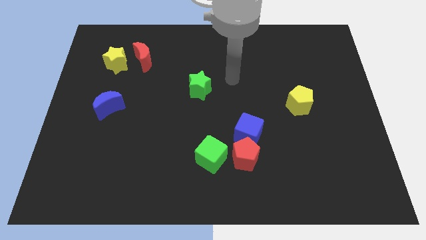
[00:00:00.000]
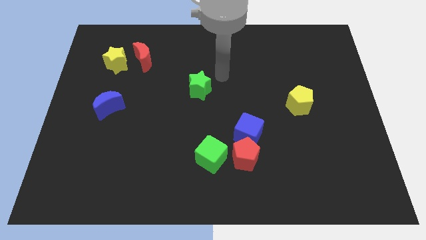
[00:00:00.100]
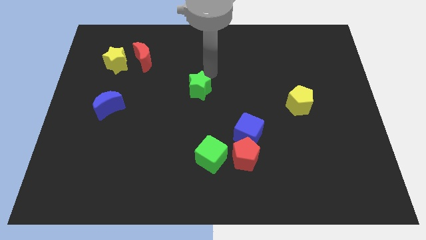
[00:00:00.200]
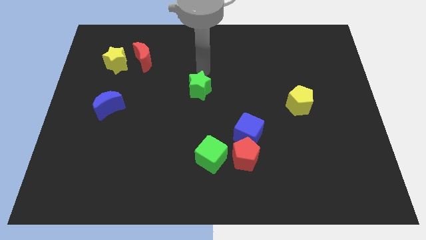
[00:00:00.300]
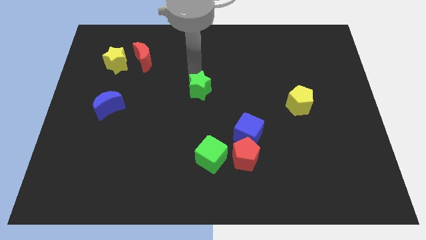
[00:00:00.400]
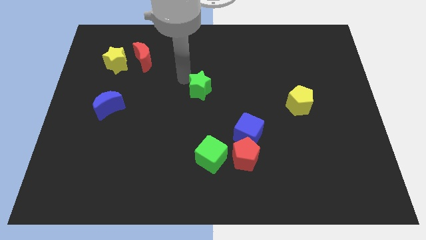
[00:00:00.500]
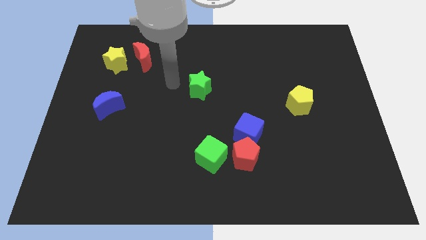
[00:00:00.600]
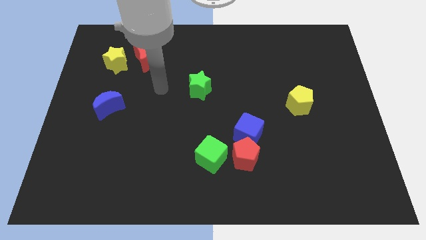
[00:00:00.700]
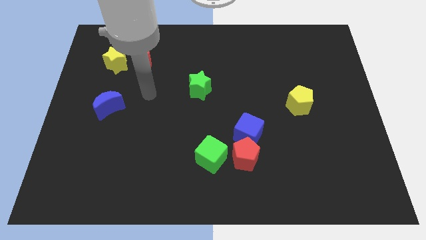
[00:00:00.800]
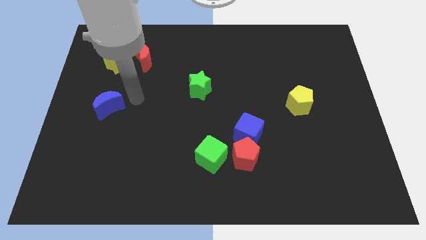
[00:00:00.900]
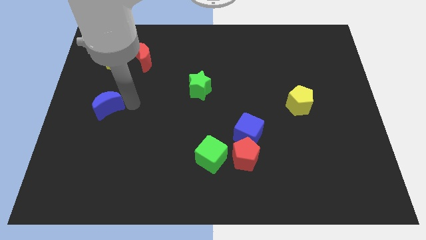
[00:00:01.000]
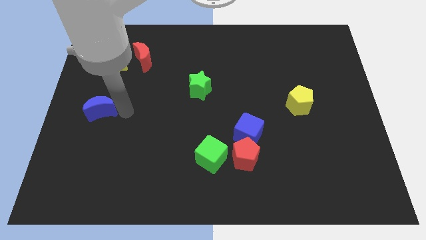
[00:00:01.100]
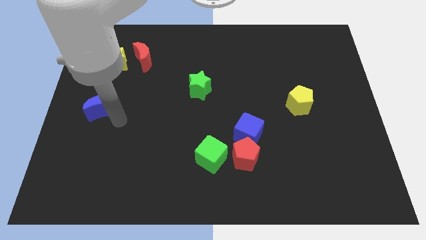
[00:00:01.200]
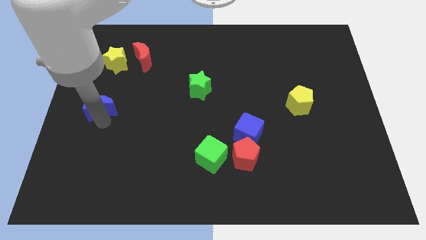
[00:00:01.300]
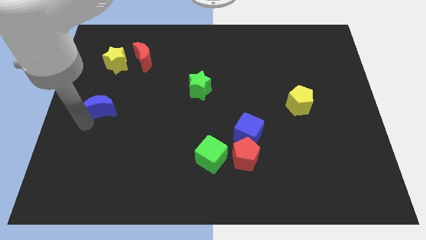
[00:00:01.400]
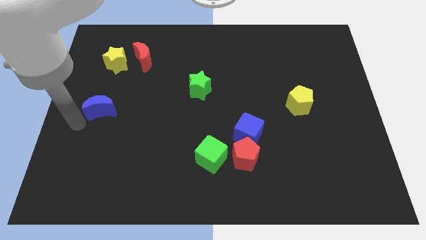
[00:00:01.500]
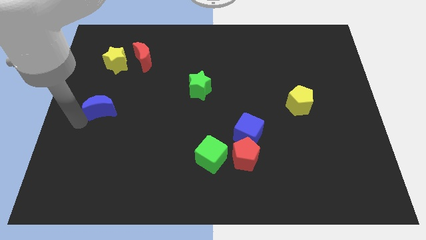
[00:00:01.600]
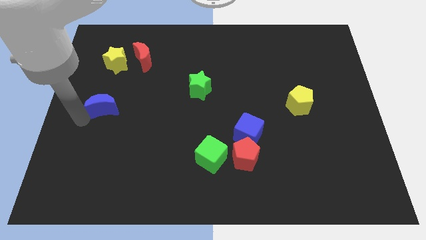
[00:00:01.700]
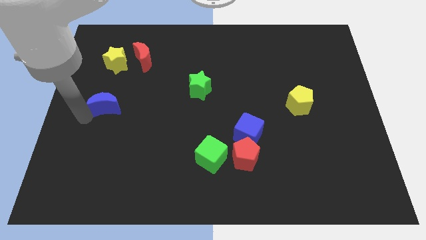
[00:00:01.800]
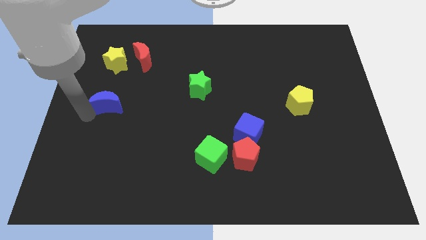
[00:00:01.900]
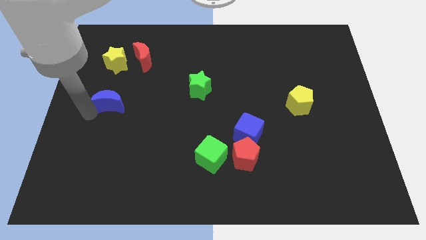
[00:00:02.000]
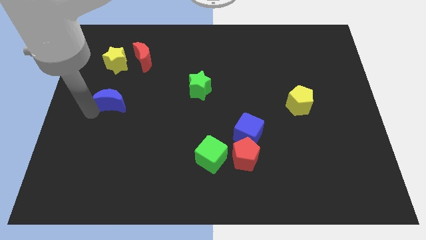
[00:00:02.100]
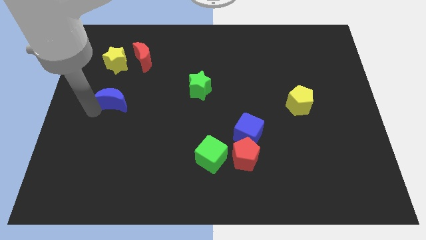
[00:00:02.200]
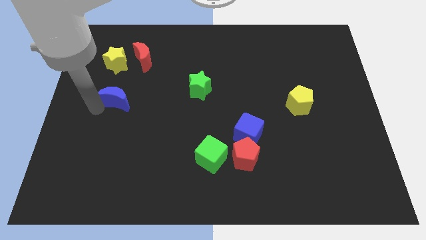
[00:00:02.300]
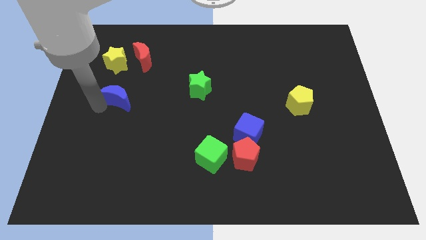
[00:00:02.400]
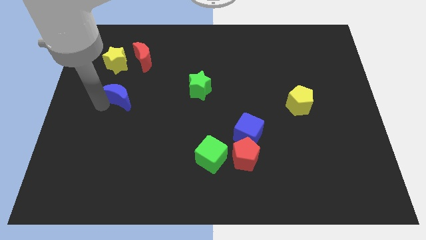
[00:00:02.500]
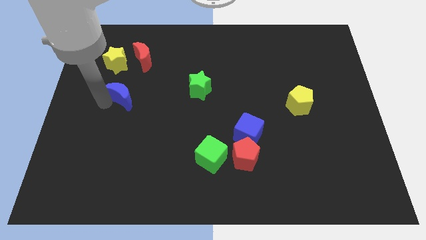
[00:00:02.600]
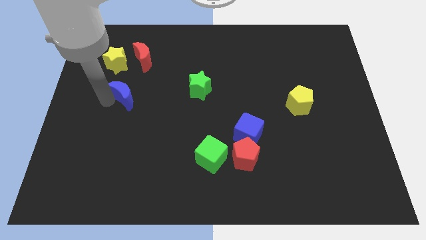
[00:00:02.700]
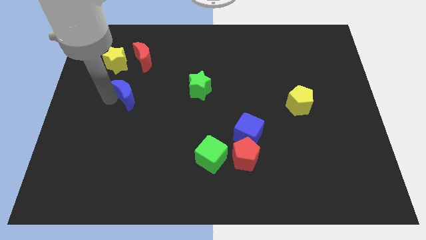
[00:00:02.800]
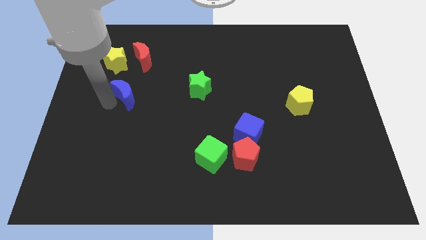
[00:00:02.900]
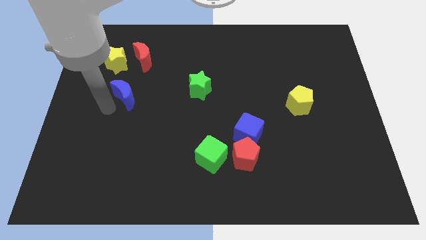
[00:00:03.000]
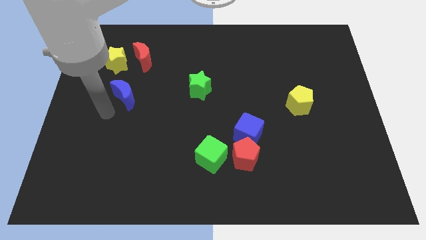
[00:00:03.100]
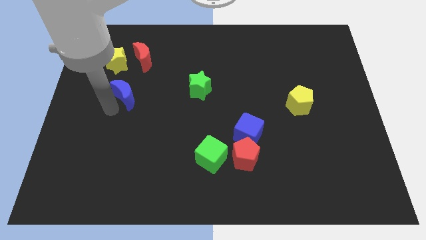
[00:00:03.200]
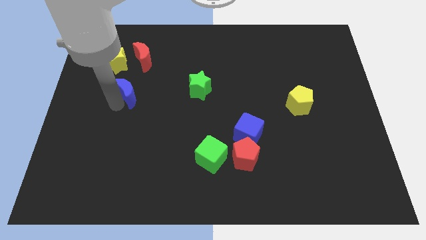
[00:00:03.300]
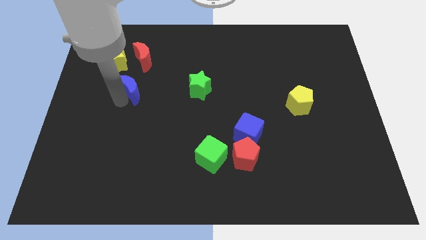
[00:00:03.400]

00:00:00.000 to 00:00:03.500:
move the blue moon diagonally upwards and right a bit

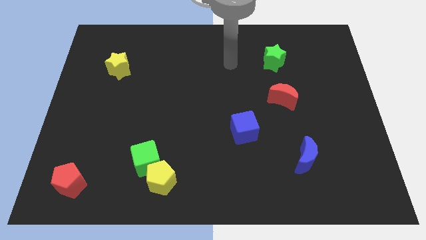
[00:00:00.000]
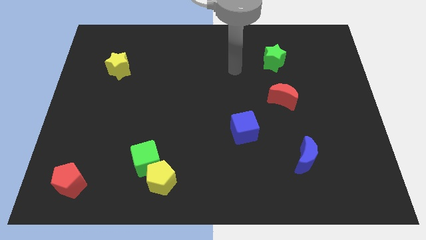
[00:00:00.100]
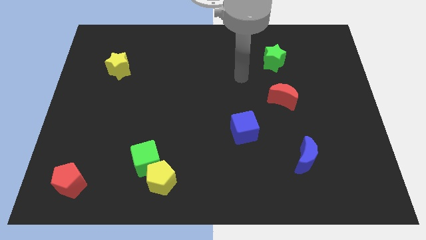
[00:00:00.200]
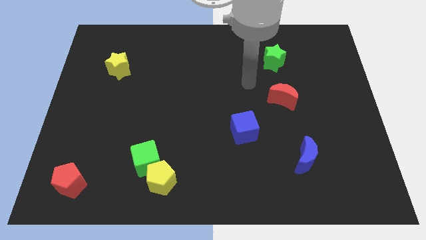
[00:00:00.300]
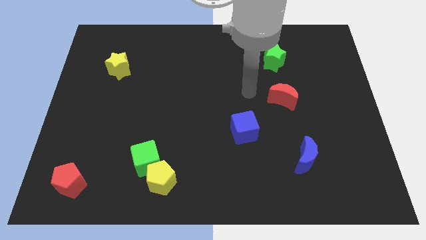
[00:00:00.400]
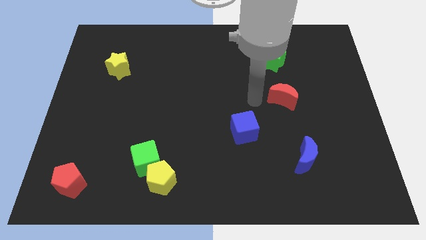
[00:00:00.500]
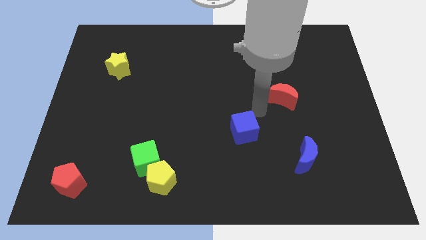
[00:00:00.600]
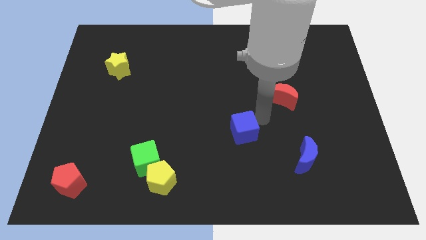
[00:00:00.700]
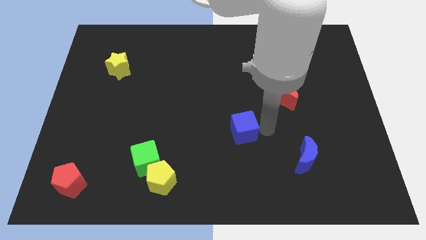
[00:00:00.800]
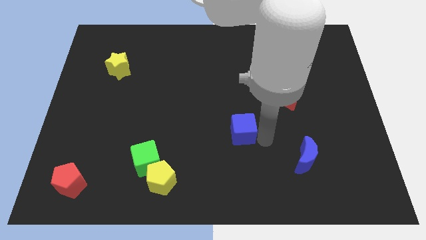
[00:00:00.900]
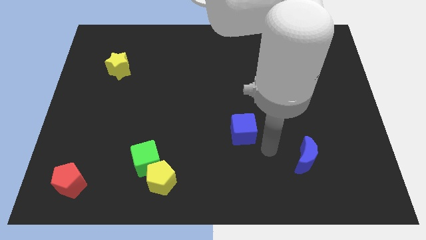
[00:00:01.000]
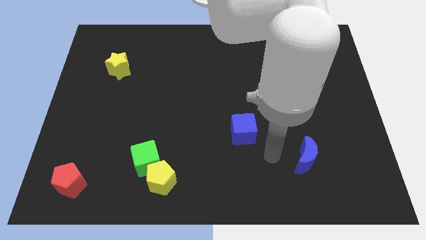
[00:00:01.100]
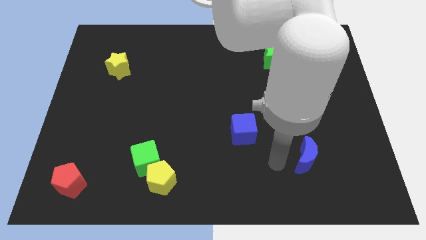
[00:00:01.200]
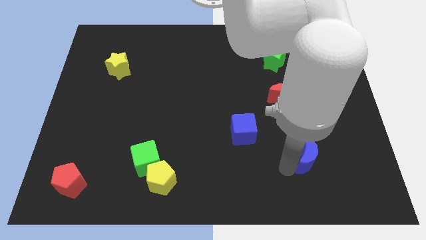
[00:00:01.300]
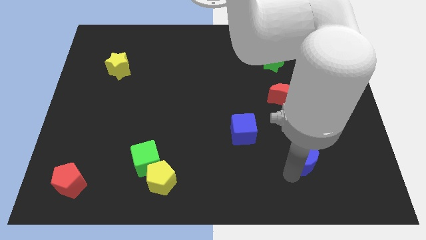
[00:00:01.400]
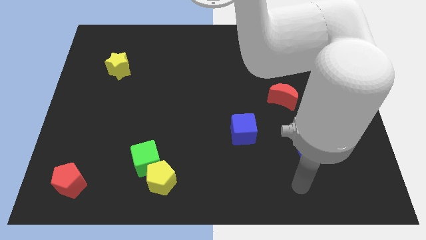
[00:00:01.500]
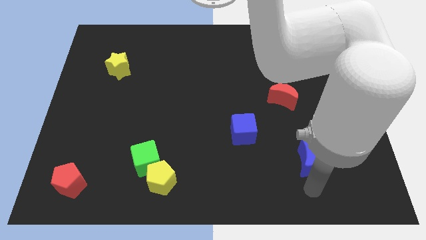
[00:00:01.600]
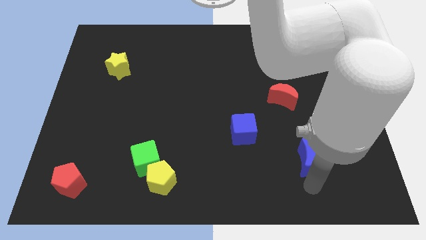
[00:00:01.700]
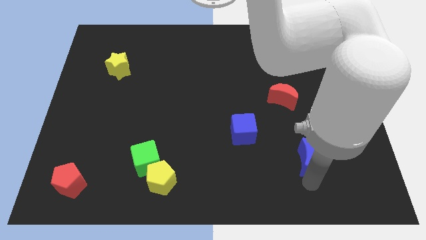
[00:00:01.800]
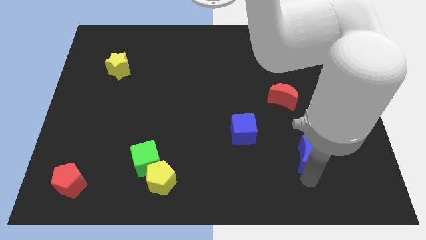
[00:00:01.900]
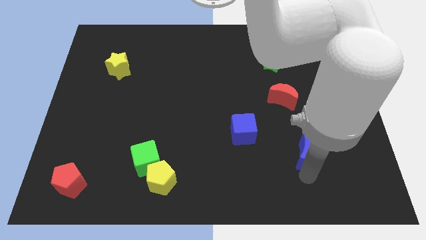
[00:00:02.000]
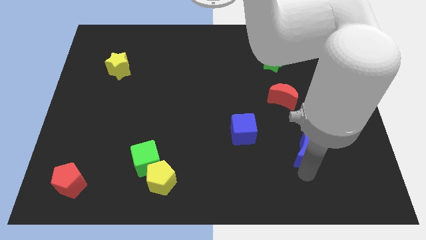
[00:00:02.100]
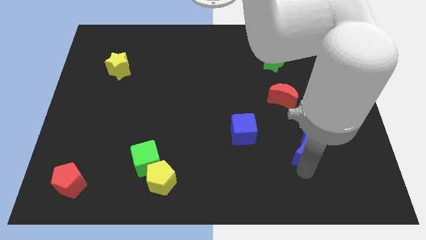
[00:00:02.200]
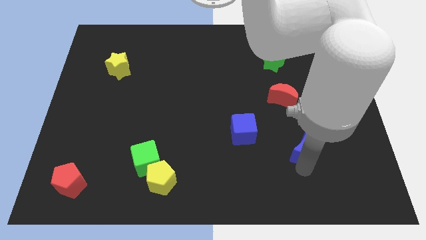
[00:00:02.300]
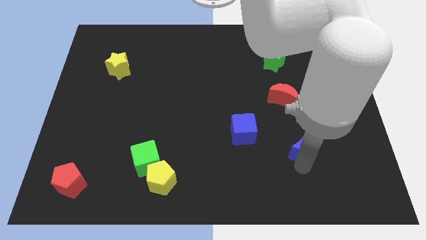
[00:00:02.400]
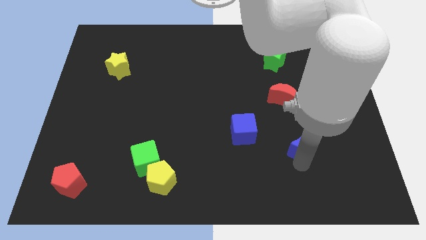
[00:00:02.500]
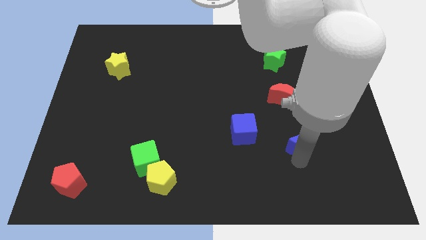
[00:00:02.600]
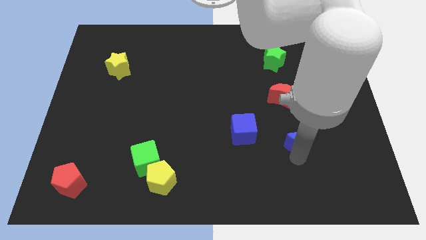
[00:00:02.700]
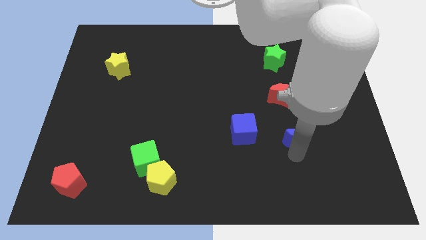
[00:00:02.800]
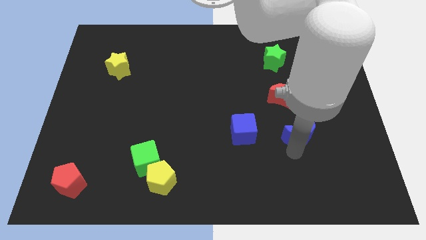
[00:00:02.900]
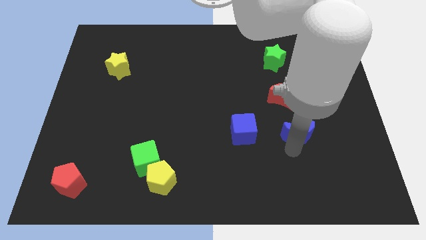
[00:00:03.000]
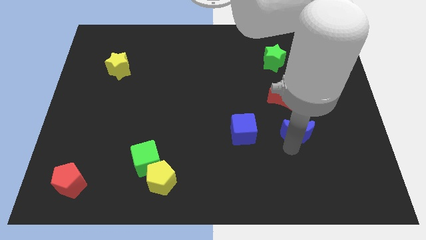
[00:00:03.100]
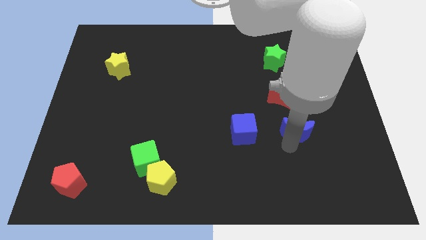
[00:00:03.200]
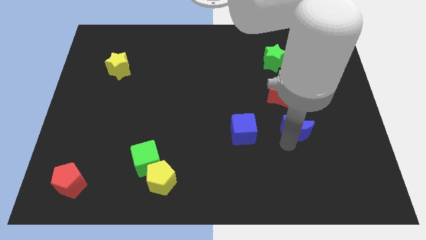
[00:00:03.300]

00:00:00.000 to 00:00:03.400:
slightly push the blue moon up

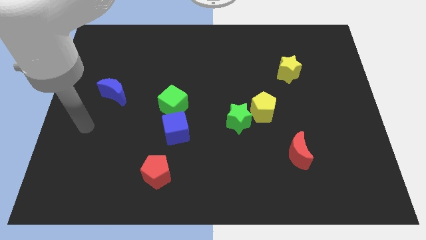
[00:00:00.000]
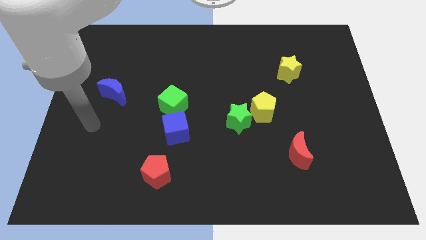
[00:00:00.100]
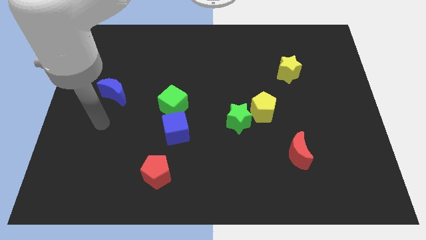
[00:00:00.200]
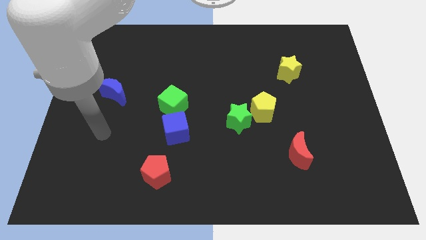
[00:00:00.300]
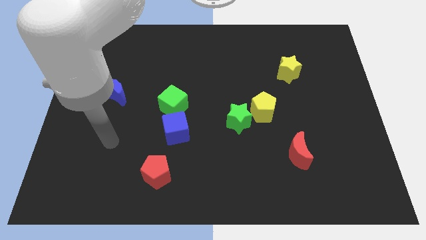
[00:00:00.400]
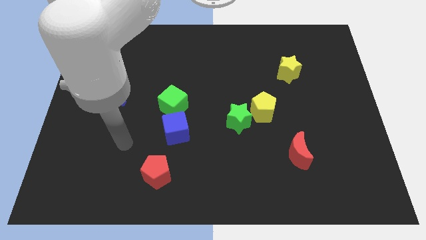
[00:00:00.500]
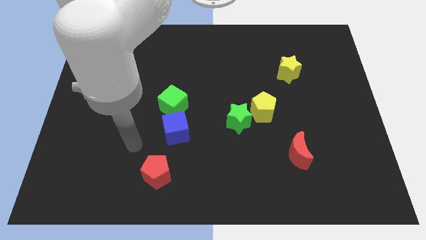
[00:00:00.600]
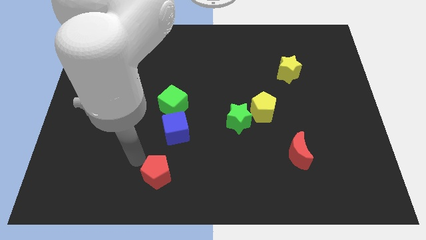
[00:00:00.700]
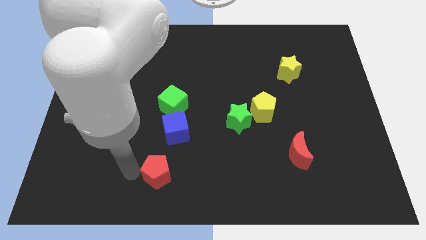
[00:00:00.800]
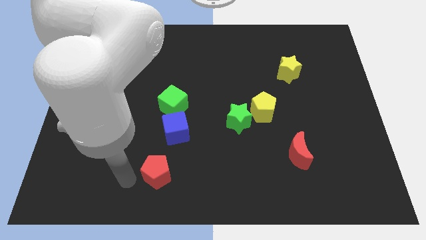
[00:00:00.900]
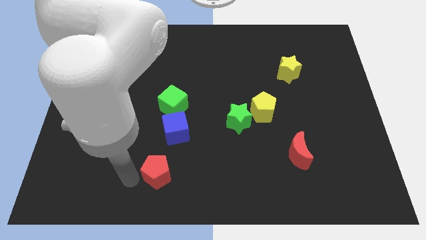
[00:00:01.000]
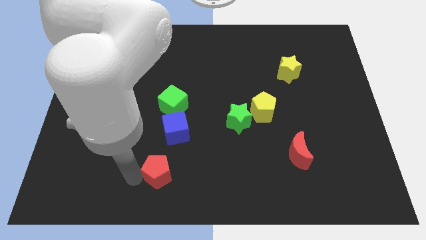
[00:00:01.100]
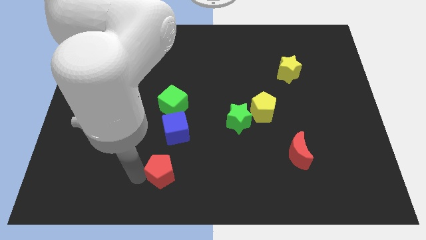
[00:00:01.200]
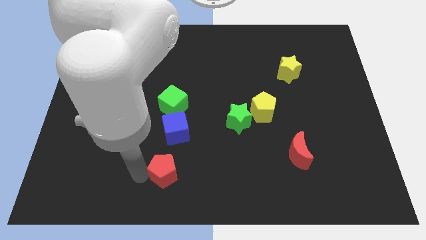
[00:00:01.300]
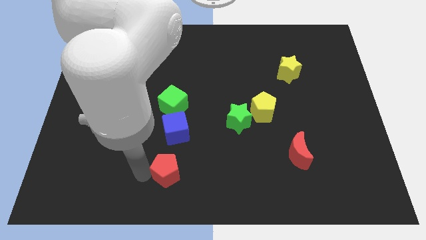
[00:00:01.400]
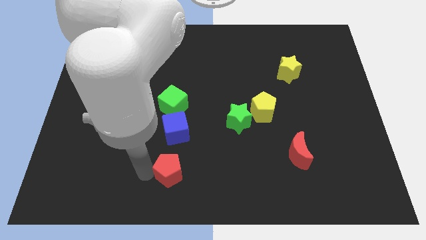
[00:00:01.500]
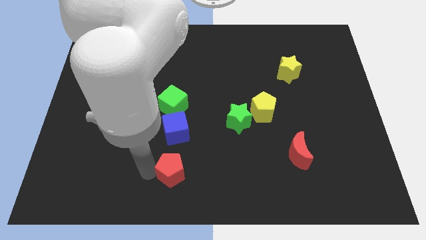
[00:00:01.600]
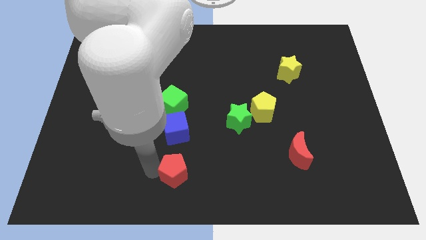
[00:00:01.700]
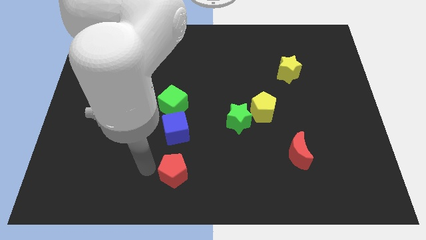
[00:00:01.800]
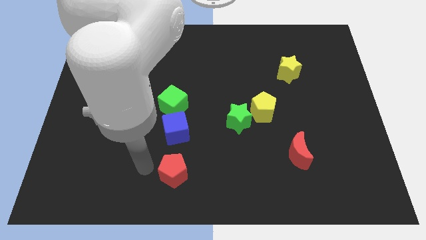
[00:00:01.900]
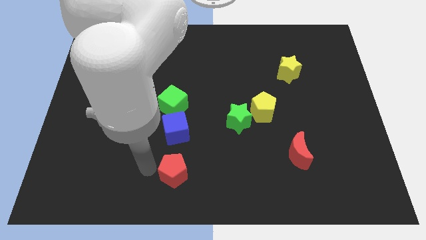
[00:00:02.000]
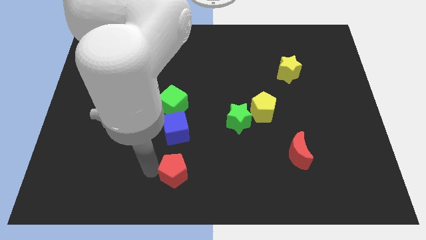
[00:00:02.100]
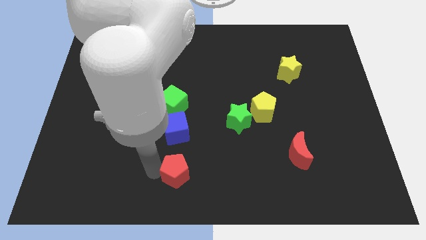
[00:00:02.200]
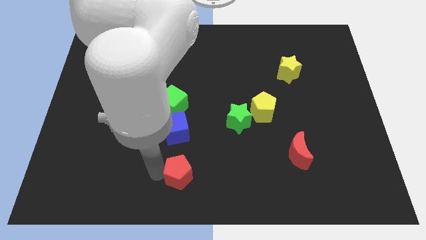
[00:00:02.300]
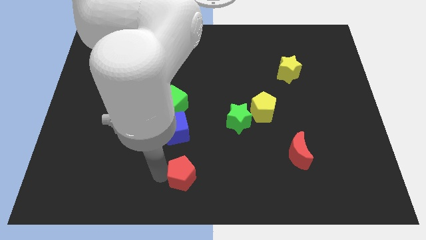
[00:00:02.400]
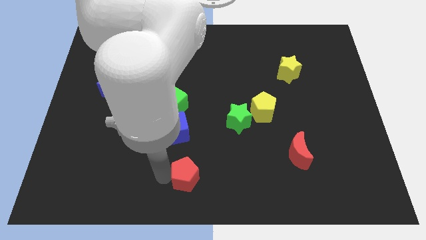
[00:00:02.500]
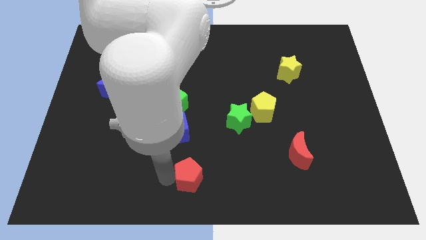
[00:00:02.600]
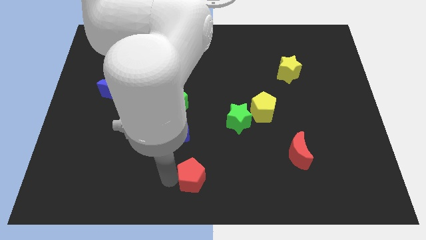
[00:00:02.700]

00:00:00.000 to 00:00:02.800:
slightly slide the red pentagon to the right
